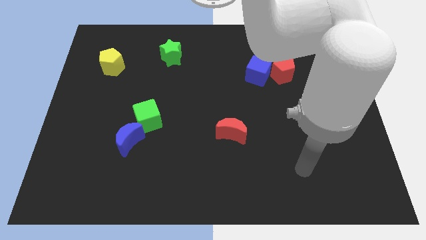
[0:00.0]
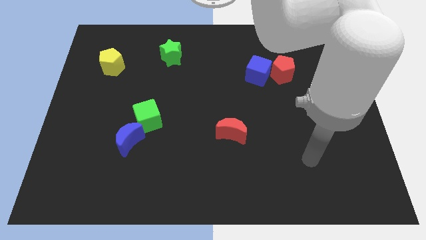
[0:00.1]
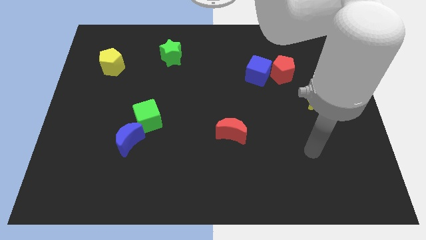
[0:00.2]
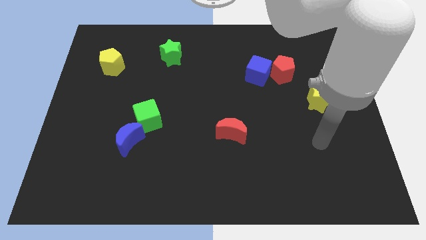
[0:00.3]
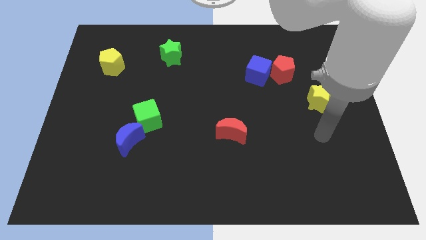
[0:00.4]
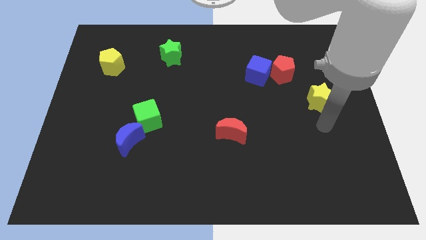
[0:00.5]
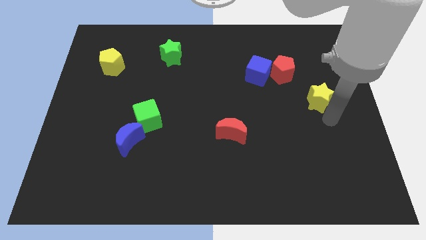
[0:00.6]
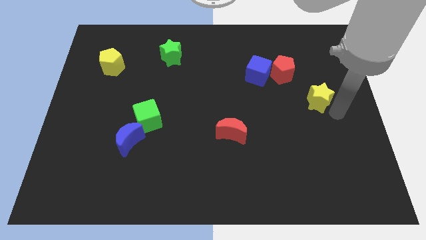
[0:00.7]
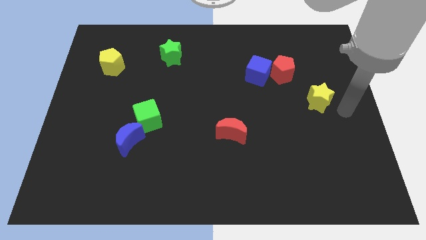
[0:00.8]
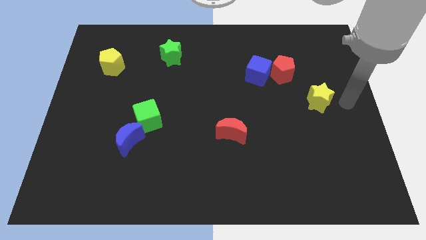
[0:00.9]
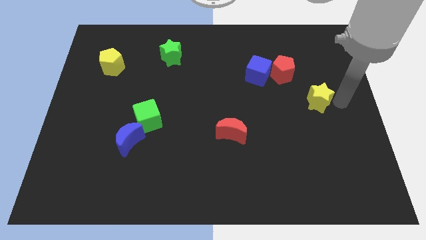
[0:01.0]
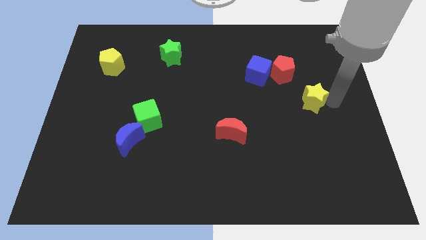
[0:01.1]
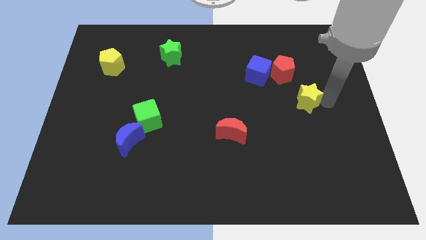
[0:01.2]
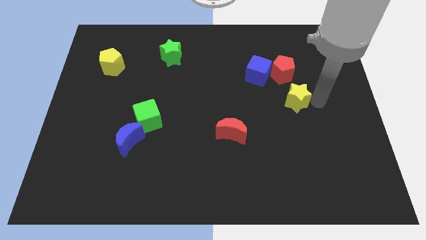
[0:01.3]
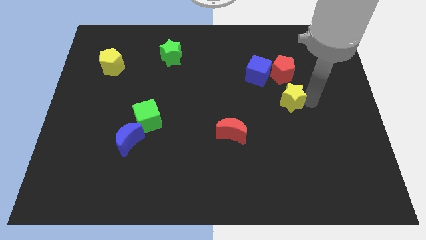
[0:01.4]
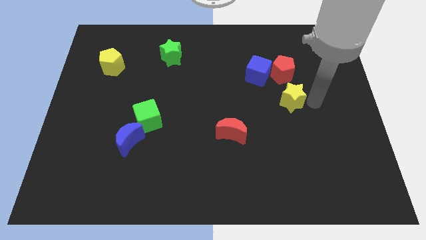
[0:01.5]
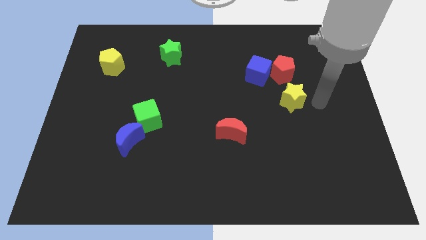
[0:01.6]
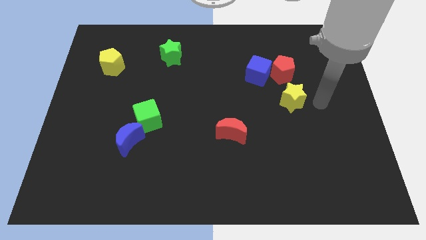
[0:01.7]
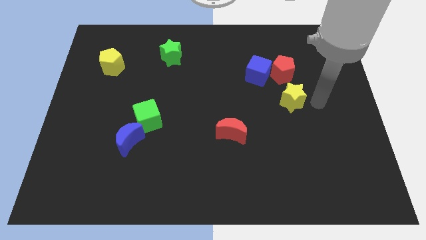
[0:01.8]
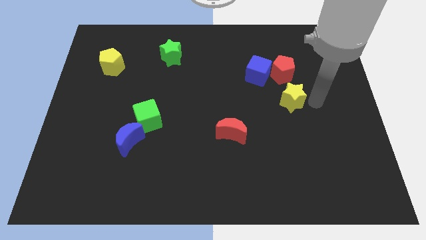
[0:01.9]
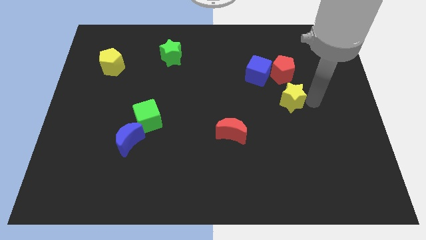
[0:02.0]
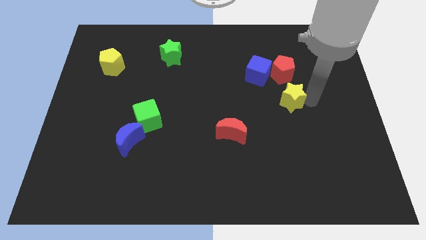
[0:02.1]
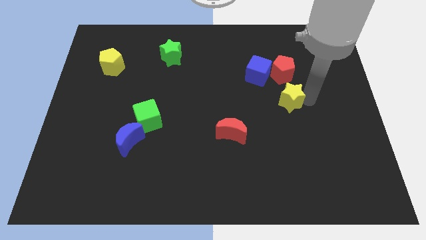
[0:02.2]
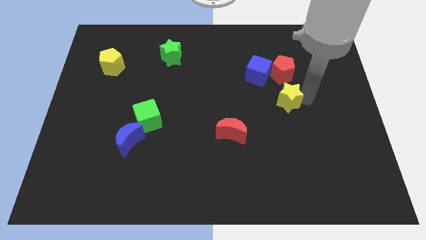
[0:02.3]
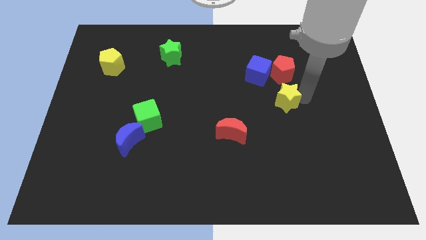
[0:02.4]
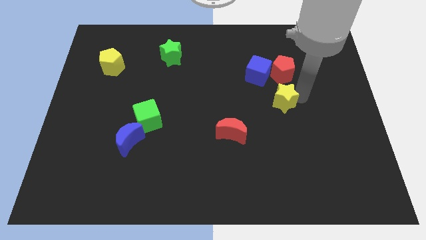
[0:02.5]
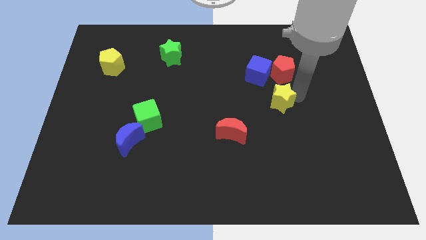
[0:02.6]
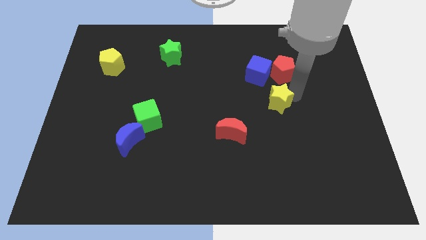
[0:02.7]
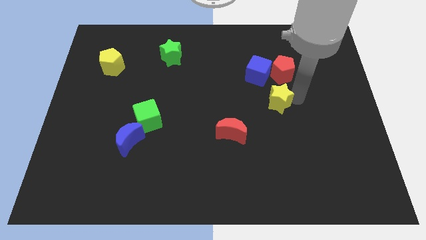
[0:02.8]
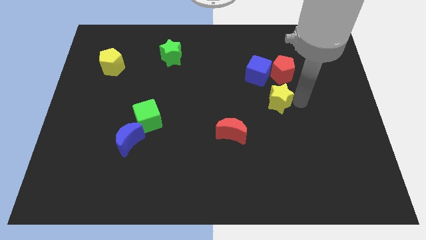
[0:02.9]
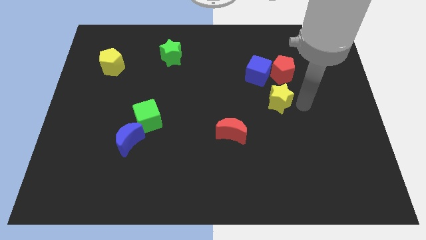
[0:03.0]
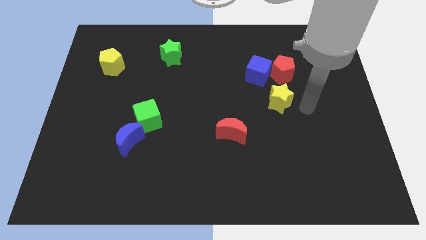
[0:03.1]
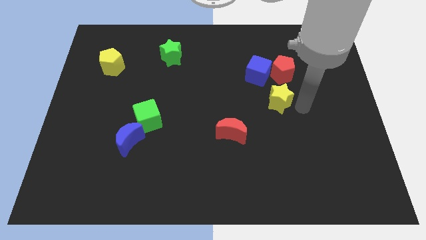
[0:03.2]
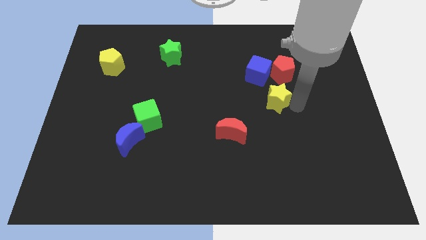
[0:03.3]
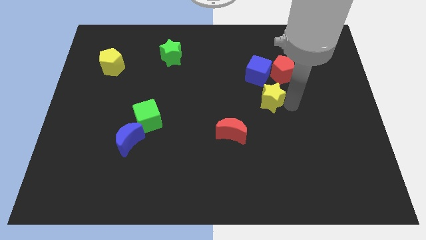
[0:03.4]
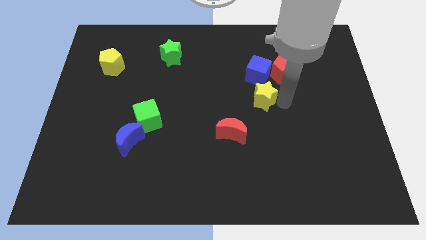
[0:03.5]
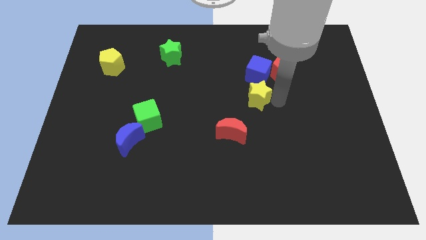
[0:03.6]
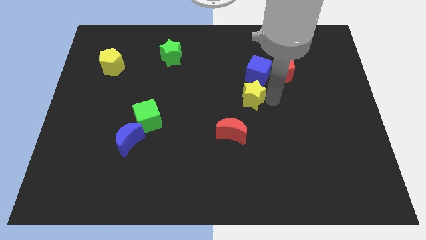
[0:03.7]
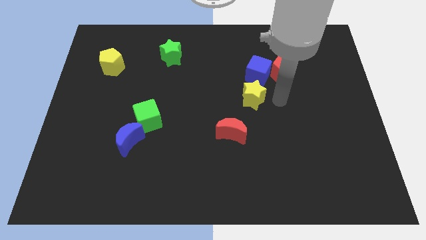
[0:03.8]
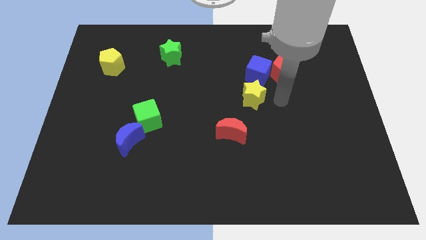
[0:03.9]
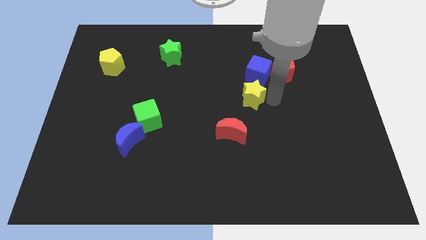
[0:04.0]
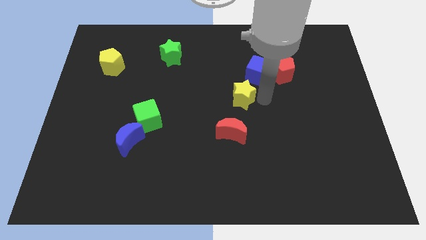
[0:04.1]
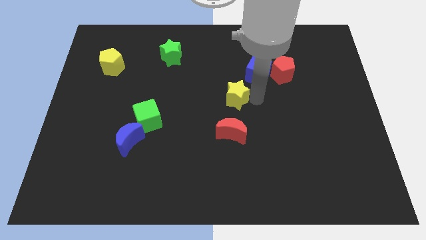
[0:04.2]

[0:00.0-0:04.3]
slide the yellow star left

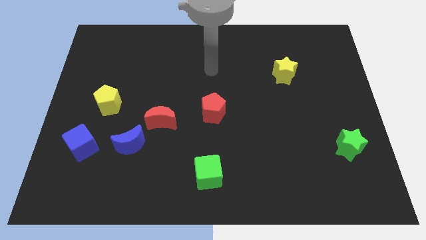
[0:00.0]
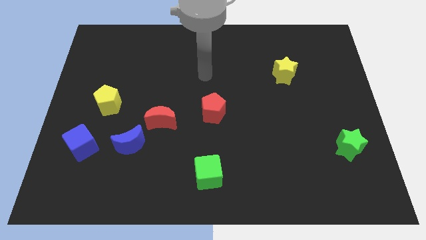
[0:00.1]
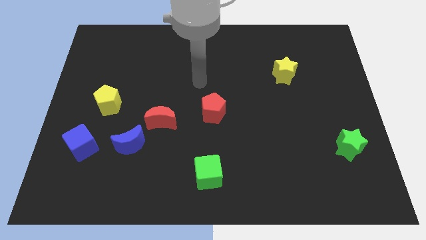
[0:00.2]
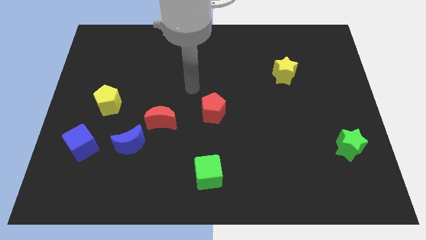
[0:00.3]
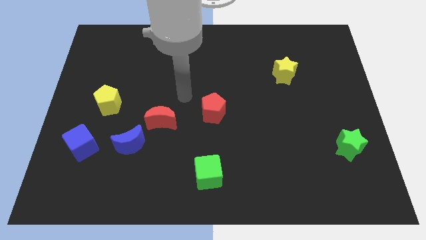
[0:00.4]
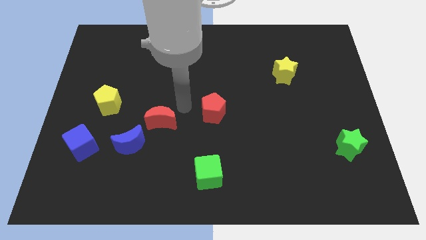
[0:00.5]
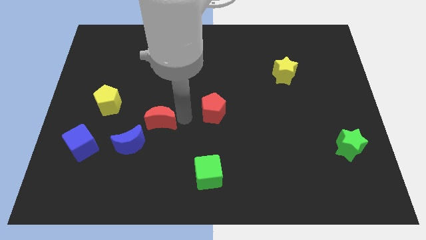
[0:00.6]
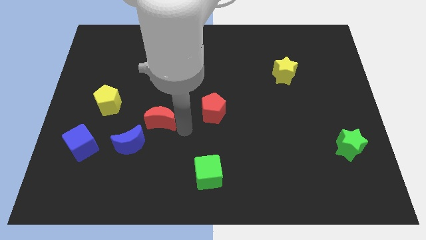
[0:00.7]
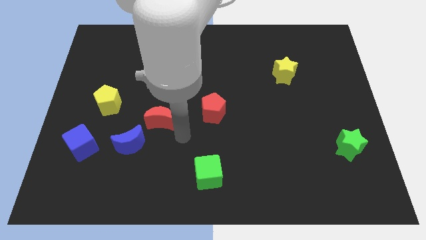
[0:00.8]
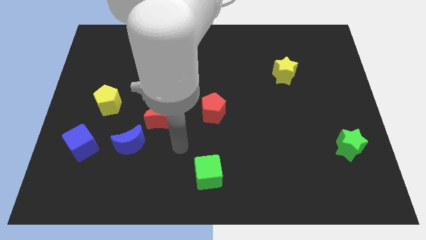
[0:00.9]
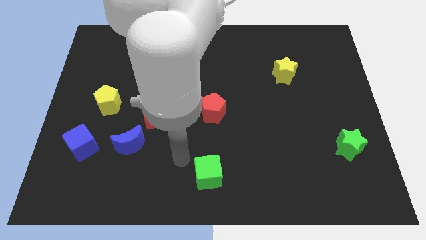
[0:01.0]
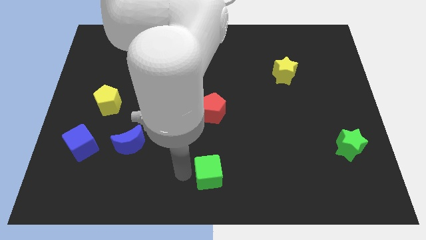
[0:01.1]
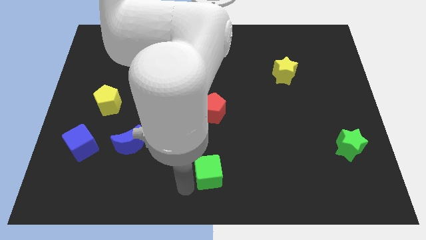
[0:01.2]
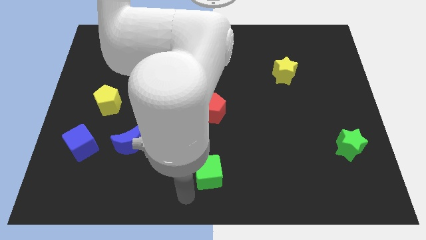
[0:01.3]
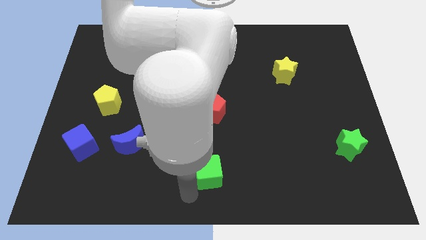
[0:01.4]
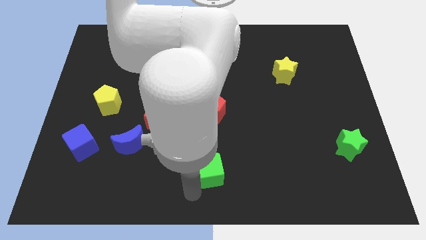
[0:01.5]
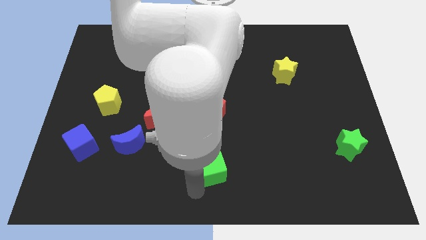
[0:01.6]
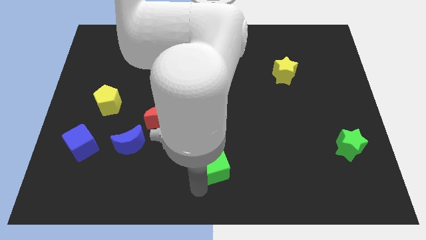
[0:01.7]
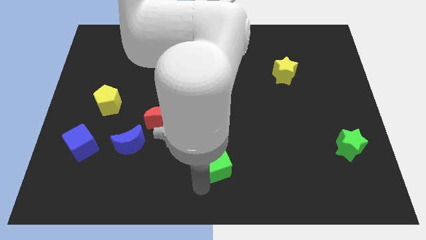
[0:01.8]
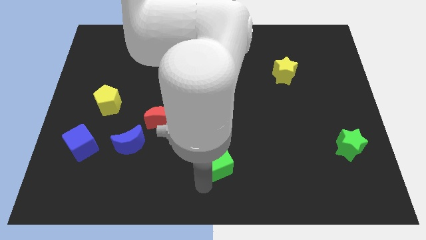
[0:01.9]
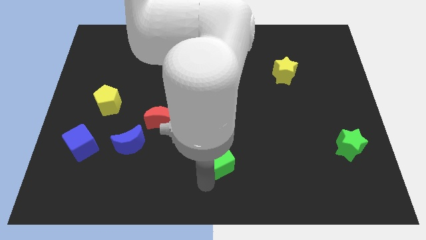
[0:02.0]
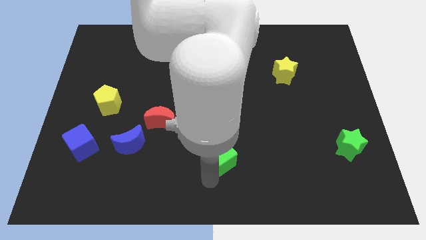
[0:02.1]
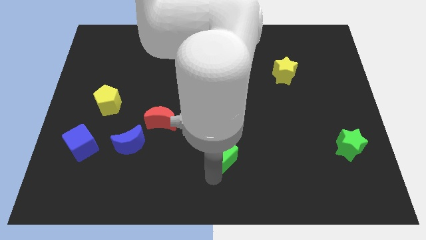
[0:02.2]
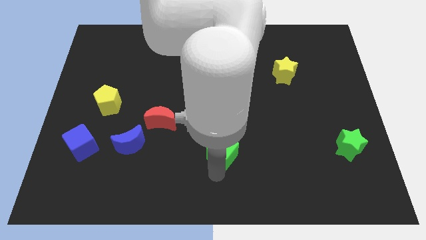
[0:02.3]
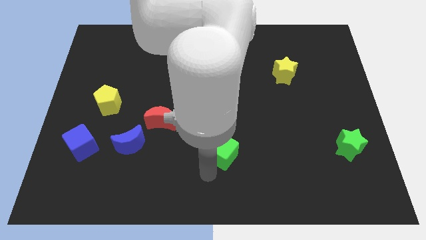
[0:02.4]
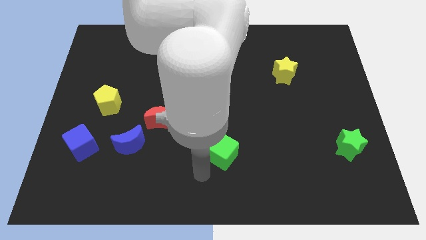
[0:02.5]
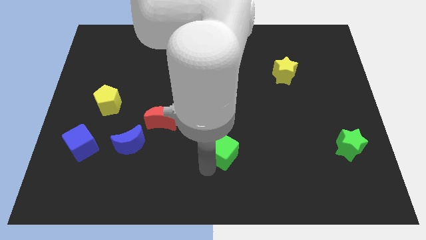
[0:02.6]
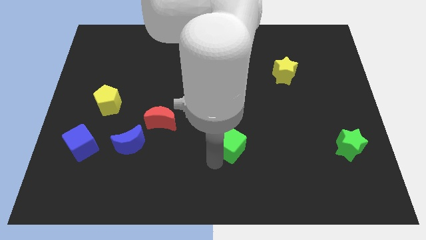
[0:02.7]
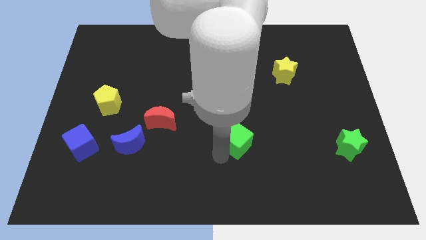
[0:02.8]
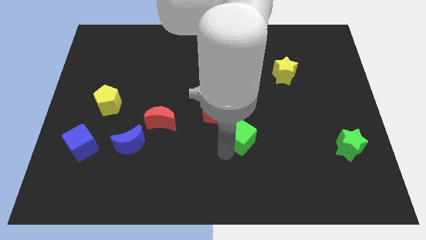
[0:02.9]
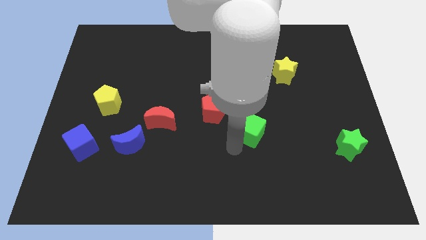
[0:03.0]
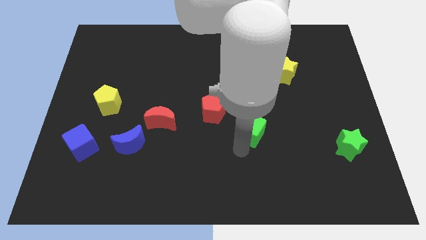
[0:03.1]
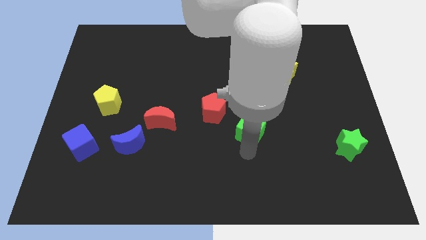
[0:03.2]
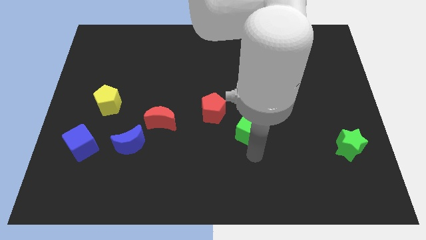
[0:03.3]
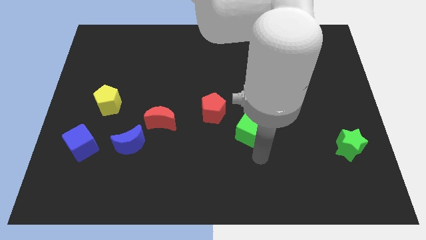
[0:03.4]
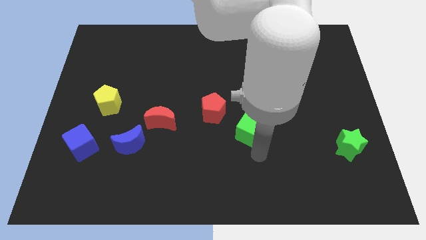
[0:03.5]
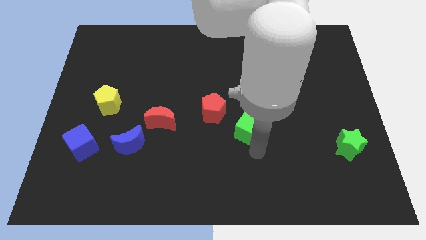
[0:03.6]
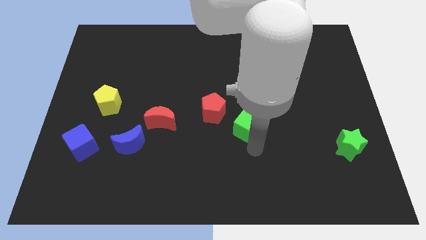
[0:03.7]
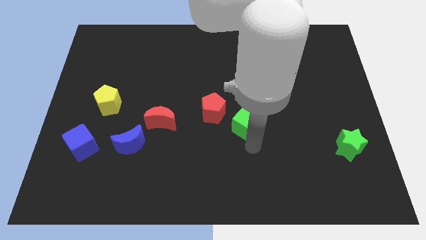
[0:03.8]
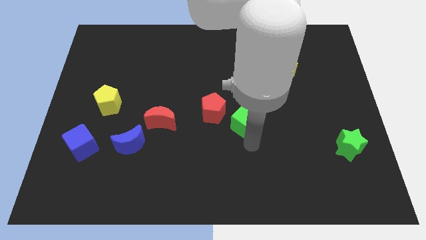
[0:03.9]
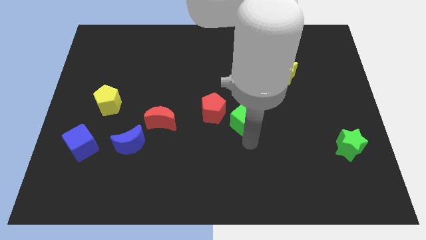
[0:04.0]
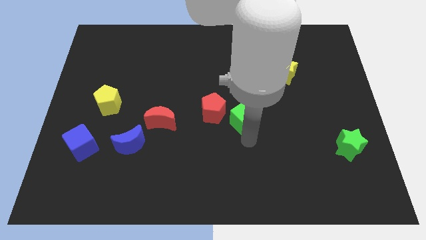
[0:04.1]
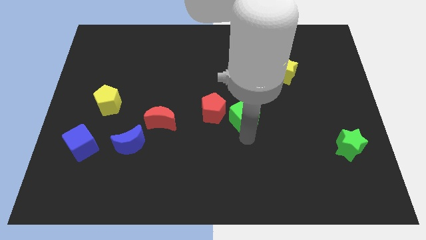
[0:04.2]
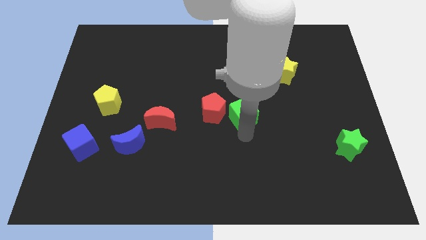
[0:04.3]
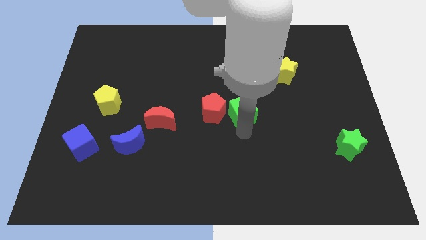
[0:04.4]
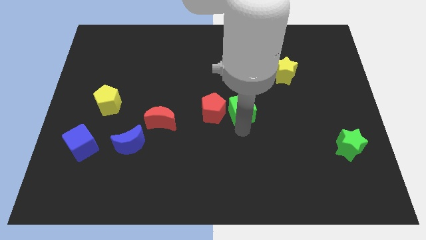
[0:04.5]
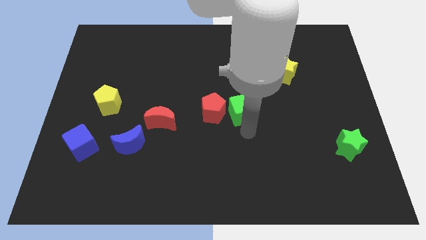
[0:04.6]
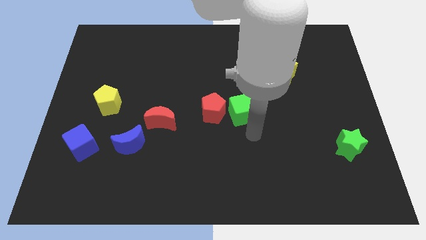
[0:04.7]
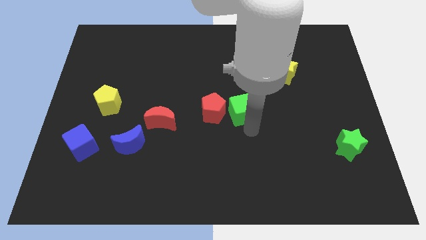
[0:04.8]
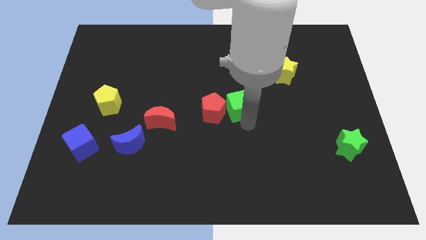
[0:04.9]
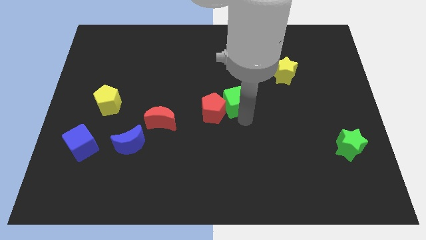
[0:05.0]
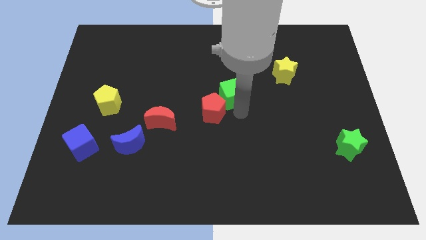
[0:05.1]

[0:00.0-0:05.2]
push the green cube up
